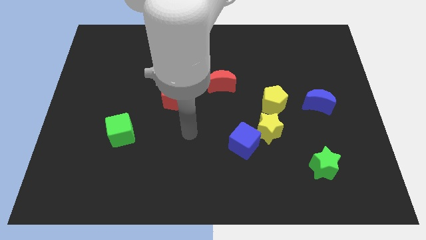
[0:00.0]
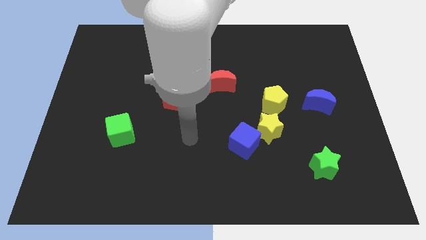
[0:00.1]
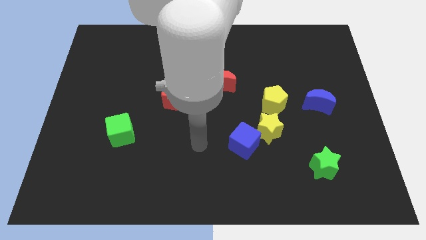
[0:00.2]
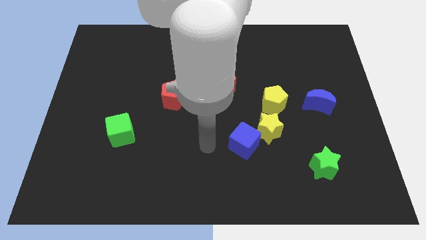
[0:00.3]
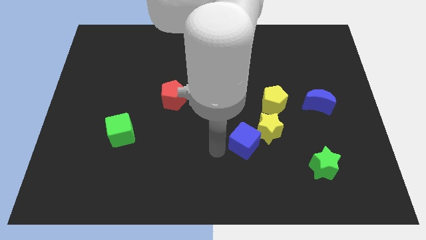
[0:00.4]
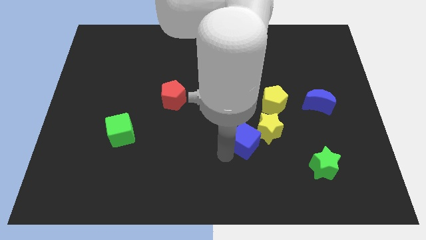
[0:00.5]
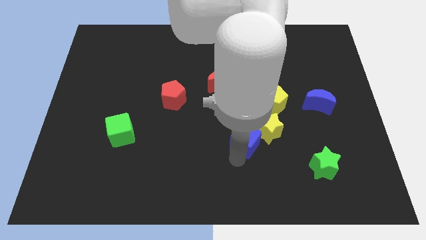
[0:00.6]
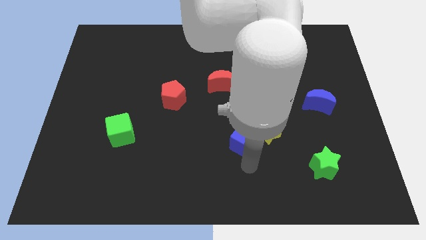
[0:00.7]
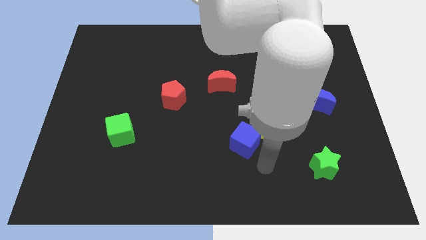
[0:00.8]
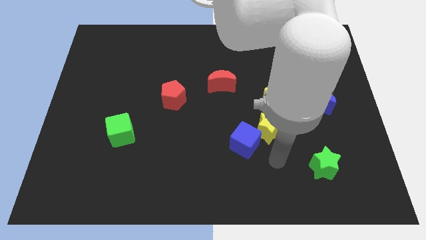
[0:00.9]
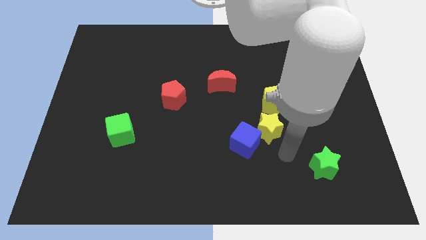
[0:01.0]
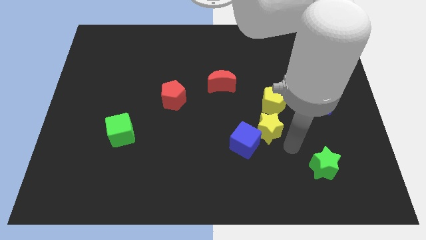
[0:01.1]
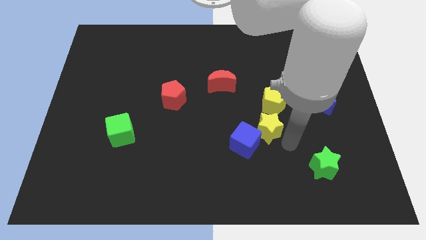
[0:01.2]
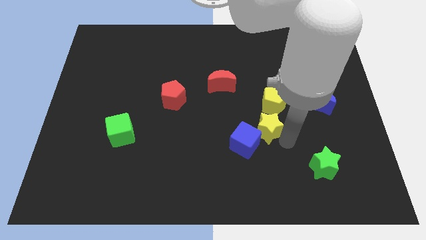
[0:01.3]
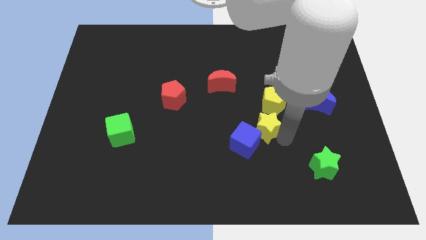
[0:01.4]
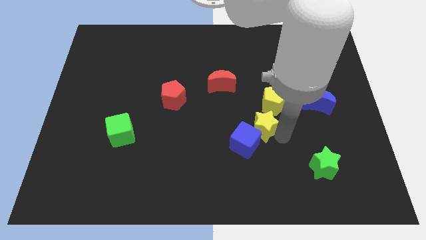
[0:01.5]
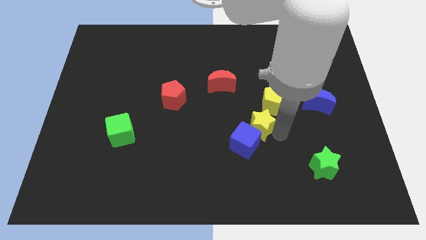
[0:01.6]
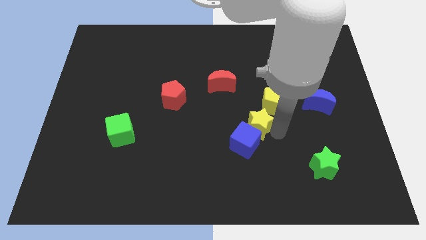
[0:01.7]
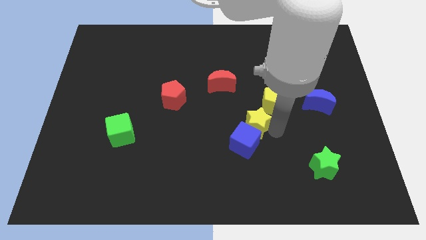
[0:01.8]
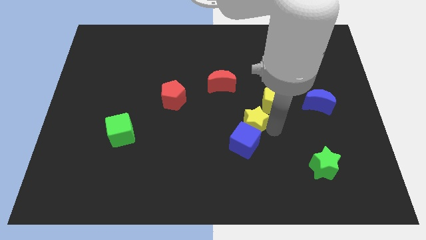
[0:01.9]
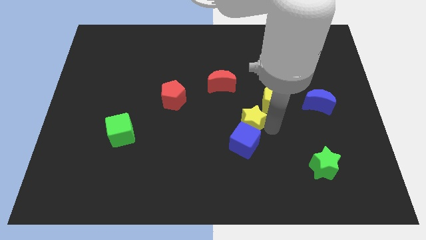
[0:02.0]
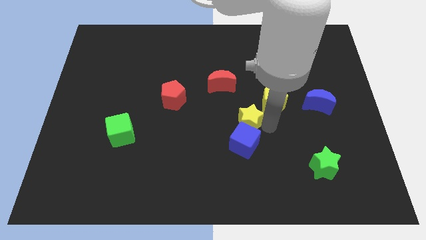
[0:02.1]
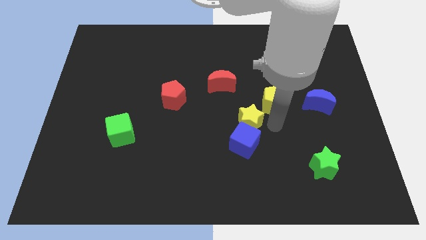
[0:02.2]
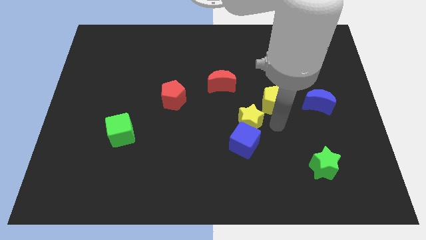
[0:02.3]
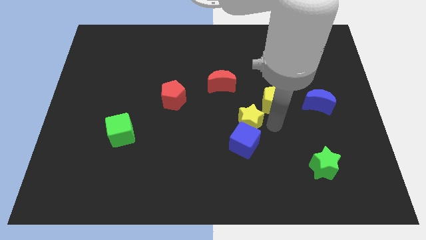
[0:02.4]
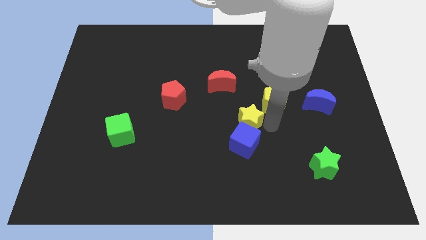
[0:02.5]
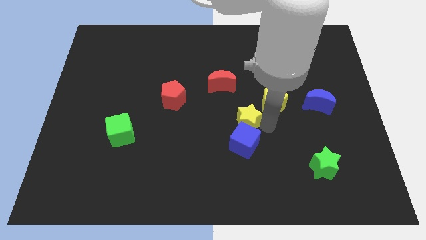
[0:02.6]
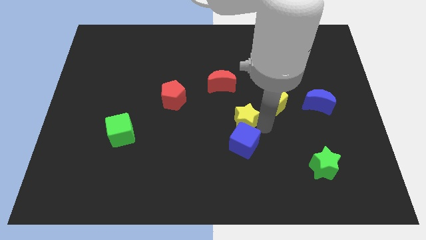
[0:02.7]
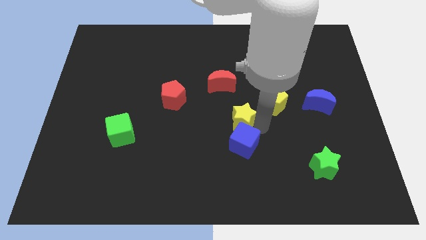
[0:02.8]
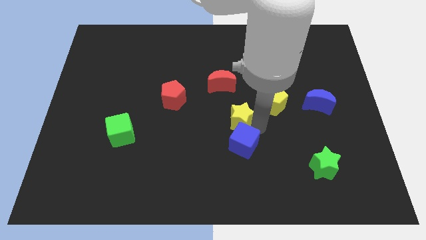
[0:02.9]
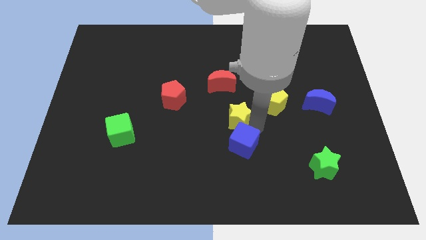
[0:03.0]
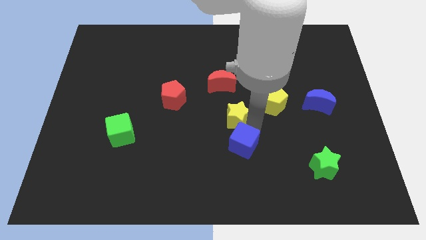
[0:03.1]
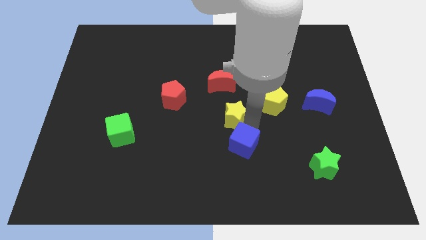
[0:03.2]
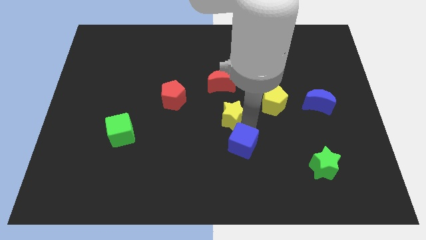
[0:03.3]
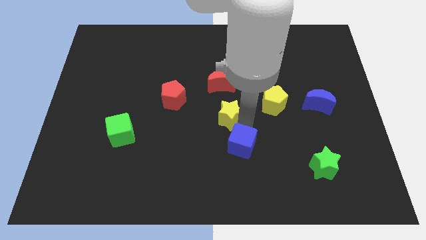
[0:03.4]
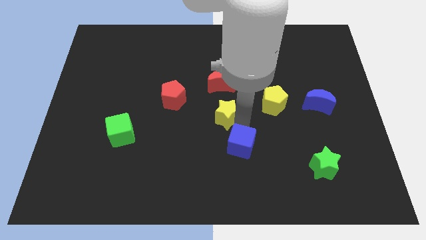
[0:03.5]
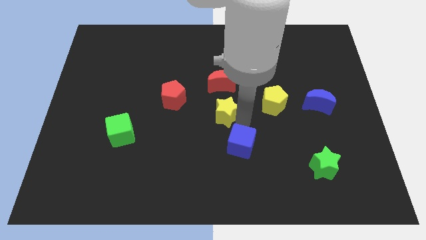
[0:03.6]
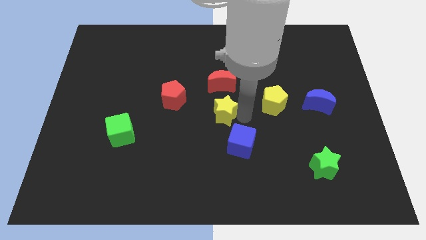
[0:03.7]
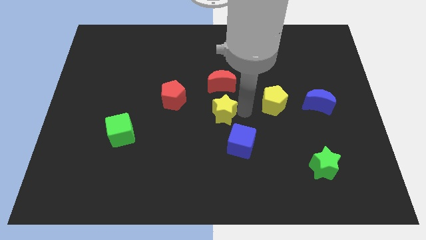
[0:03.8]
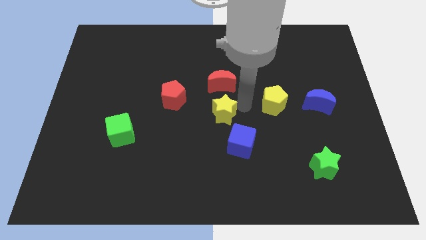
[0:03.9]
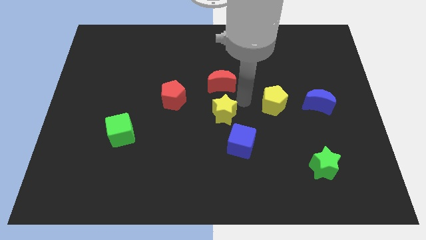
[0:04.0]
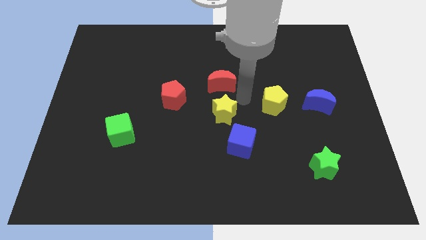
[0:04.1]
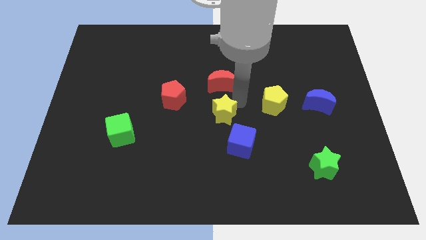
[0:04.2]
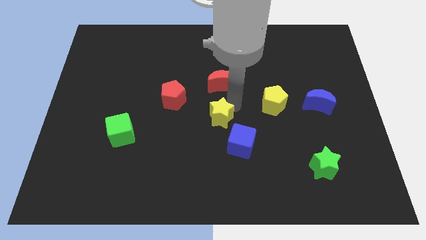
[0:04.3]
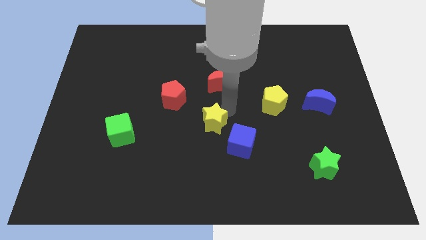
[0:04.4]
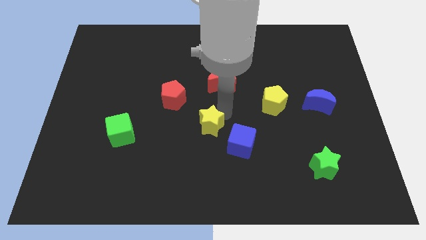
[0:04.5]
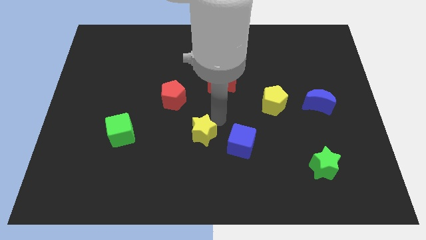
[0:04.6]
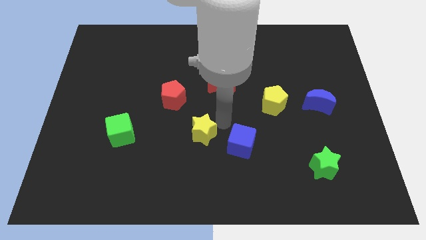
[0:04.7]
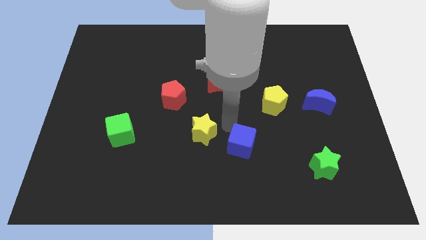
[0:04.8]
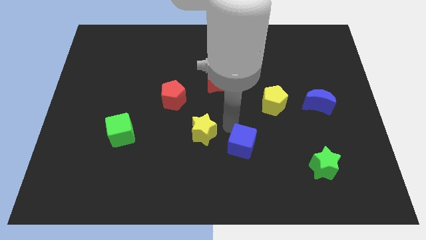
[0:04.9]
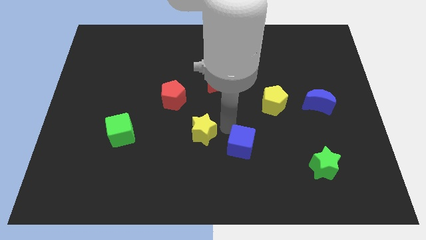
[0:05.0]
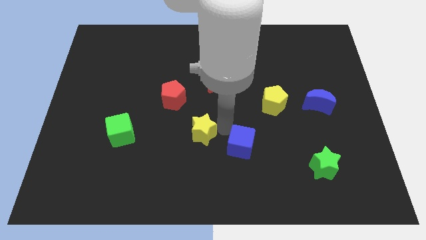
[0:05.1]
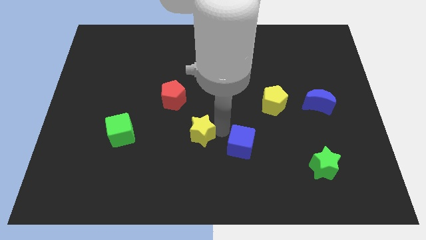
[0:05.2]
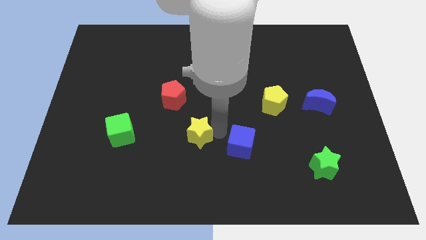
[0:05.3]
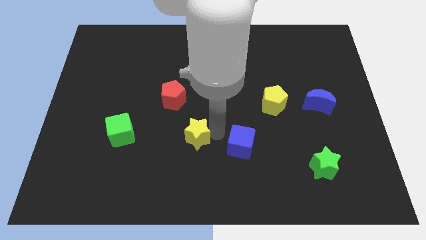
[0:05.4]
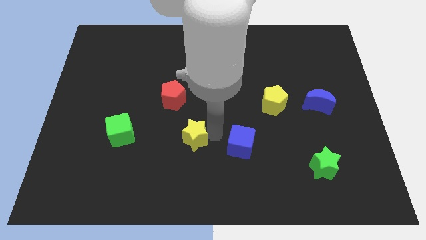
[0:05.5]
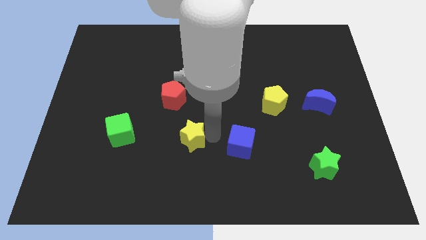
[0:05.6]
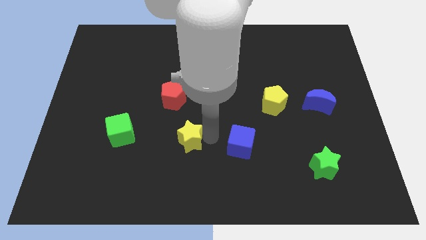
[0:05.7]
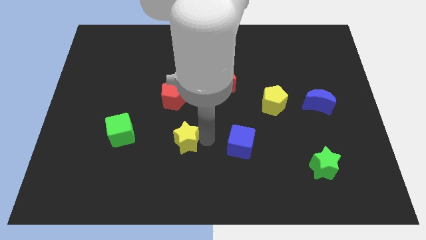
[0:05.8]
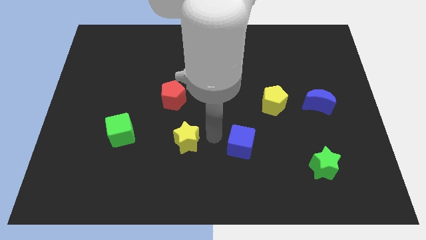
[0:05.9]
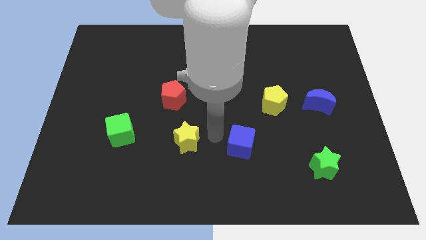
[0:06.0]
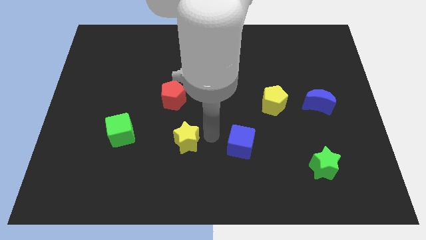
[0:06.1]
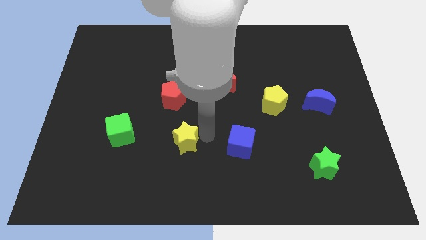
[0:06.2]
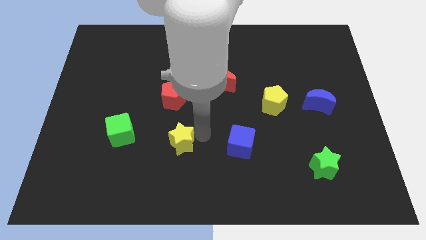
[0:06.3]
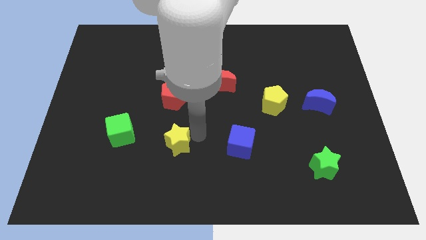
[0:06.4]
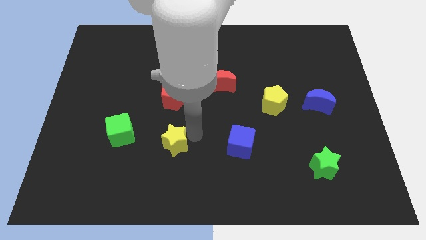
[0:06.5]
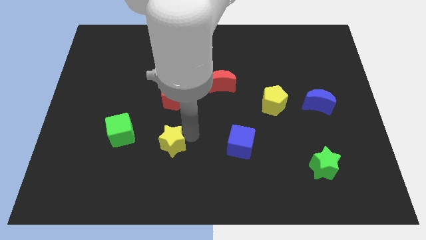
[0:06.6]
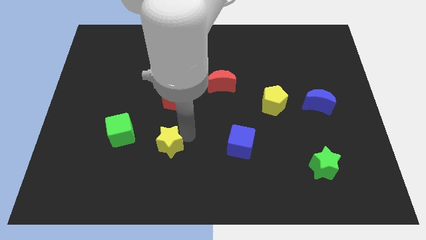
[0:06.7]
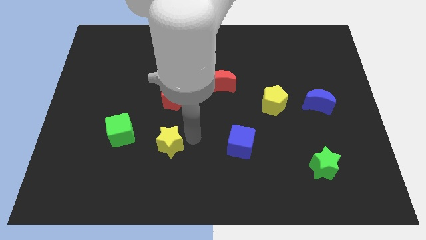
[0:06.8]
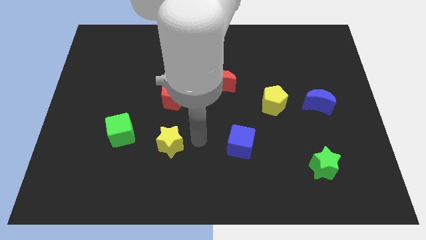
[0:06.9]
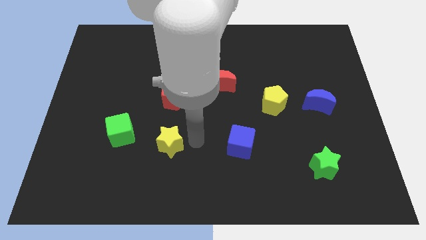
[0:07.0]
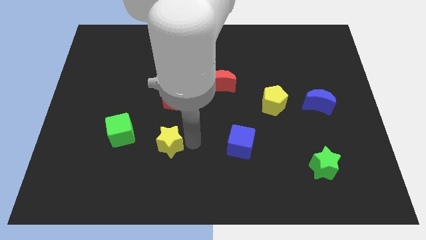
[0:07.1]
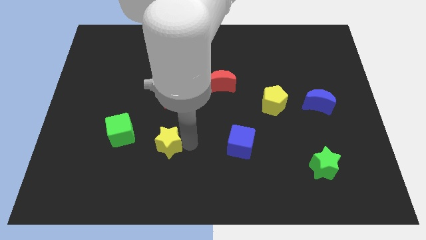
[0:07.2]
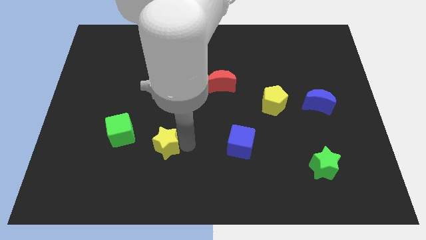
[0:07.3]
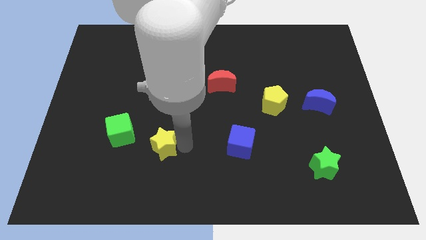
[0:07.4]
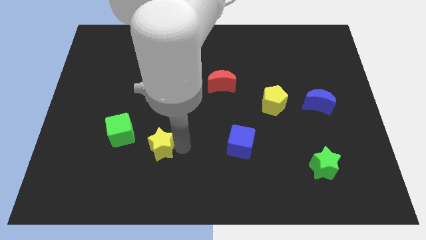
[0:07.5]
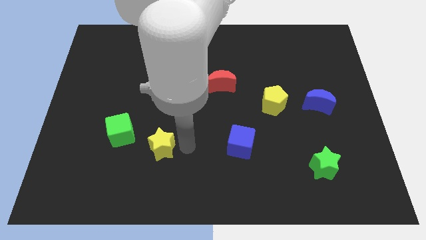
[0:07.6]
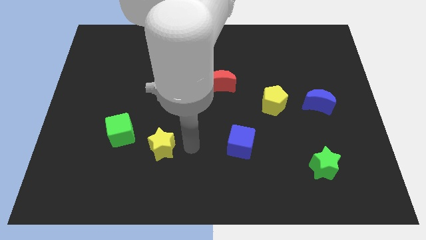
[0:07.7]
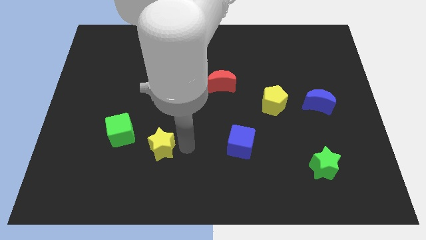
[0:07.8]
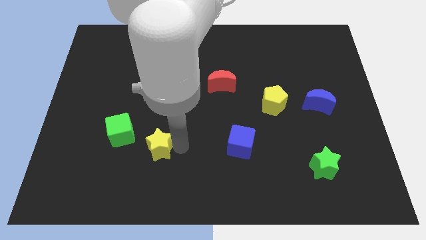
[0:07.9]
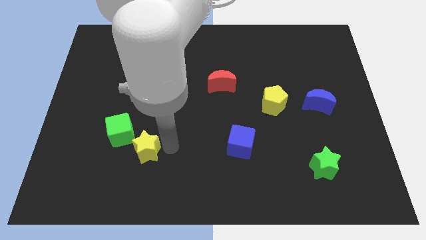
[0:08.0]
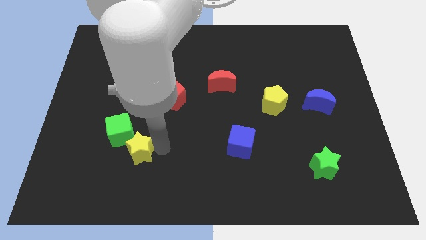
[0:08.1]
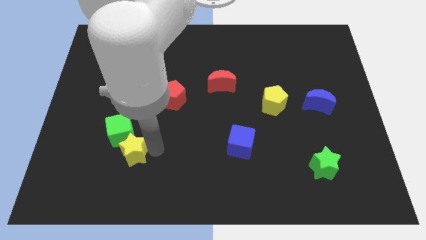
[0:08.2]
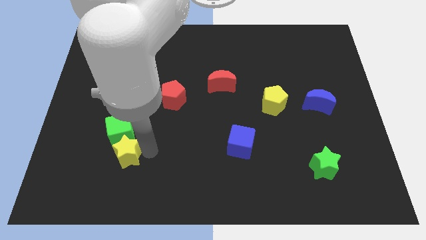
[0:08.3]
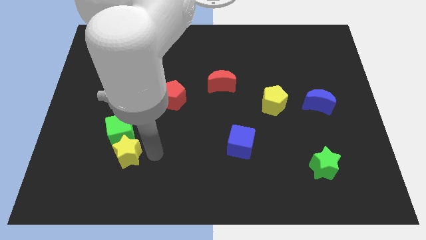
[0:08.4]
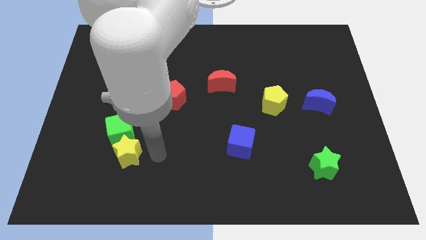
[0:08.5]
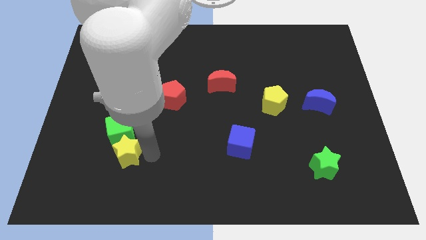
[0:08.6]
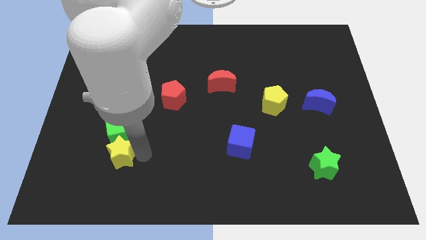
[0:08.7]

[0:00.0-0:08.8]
slide the yellow star diagonally down and to the left of the green cube
